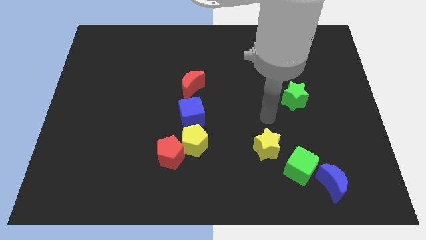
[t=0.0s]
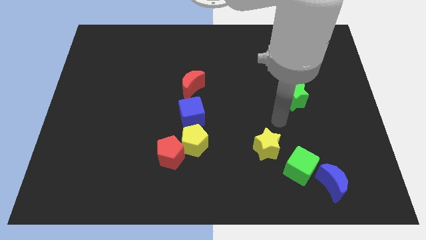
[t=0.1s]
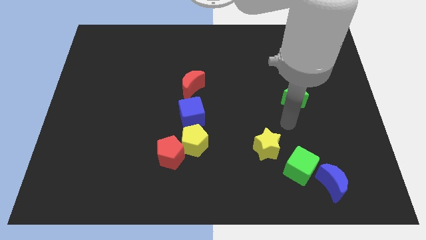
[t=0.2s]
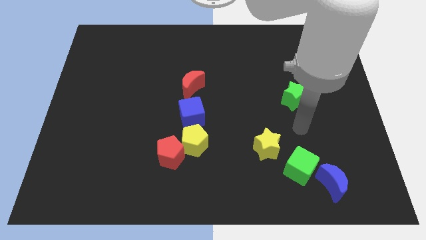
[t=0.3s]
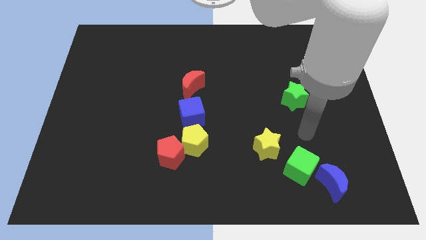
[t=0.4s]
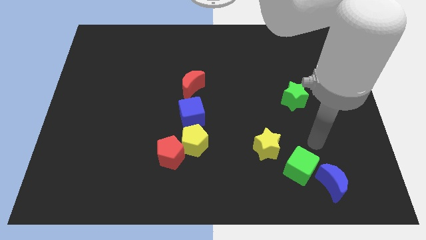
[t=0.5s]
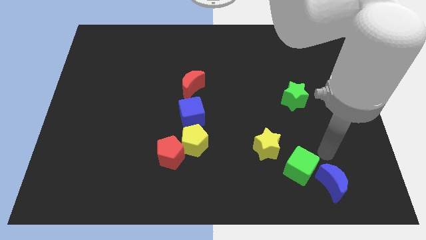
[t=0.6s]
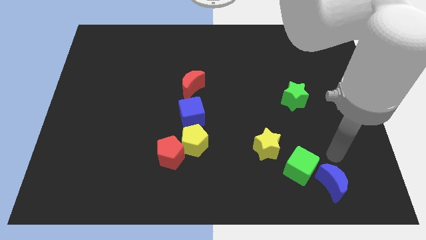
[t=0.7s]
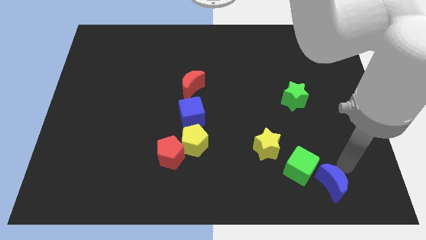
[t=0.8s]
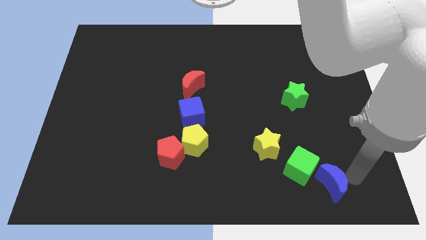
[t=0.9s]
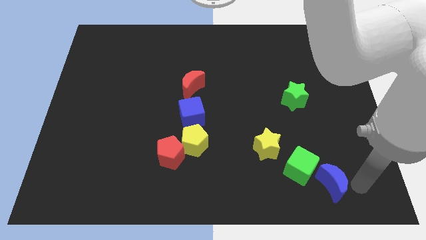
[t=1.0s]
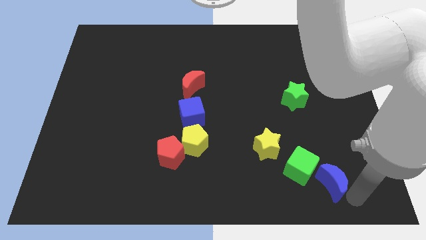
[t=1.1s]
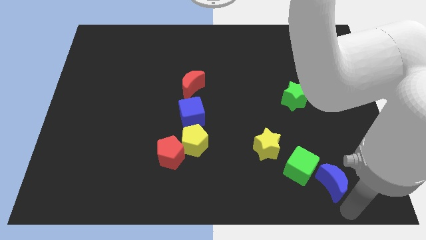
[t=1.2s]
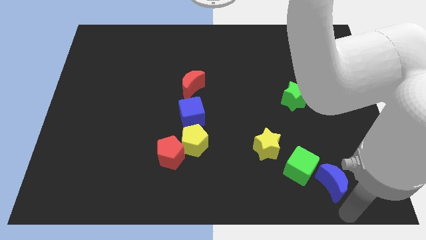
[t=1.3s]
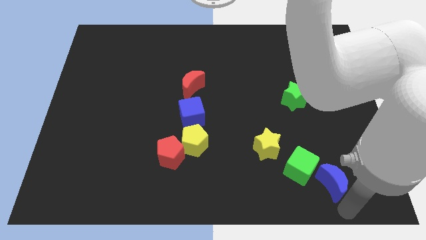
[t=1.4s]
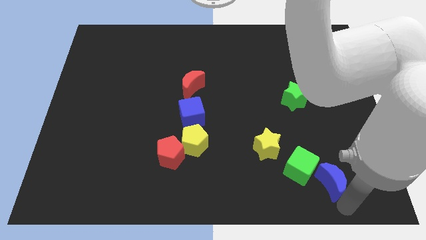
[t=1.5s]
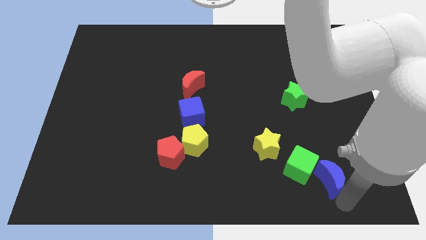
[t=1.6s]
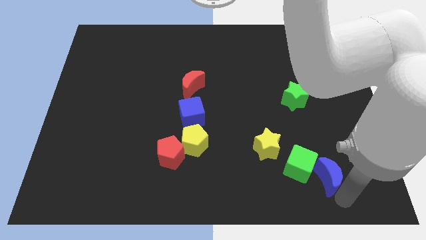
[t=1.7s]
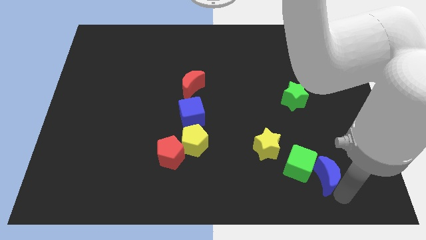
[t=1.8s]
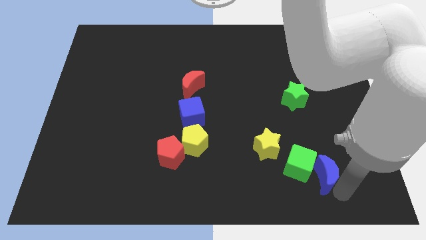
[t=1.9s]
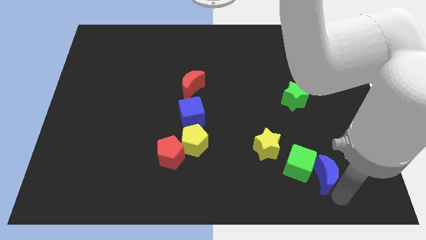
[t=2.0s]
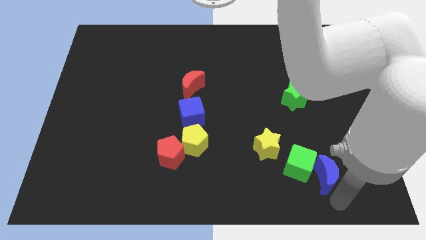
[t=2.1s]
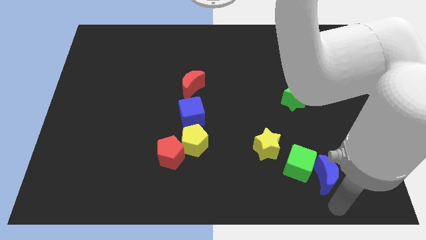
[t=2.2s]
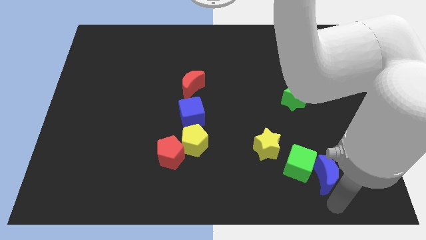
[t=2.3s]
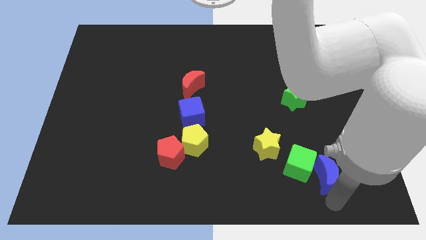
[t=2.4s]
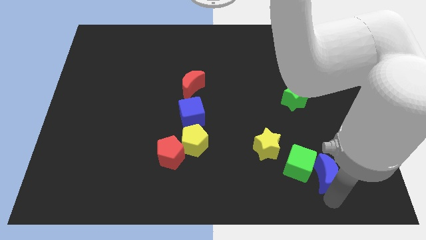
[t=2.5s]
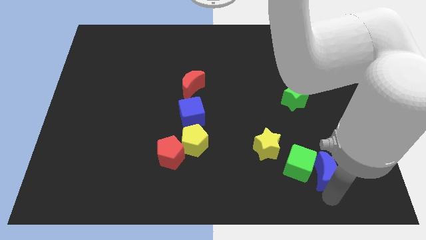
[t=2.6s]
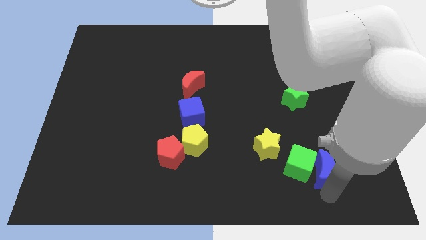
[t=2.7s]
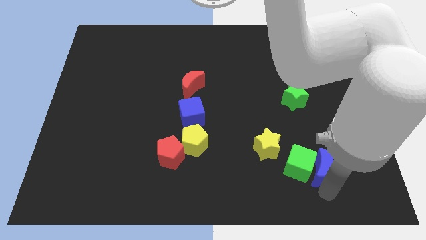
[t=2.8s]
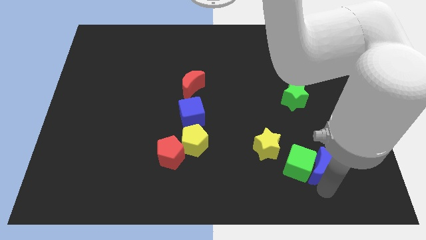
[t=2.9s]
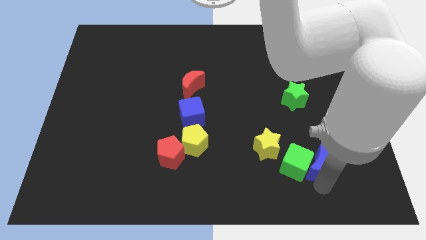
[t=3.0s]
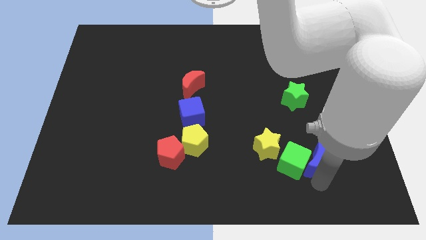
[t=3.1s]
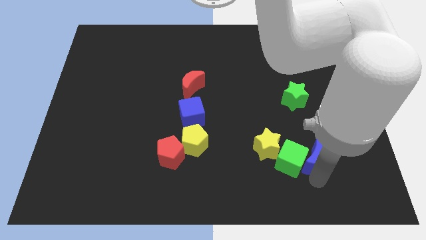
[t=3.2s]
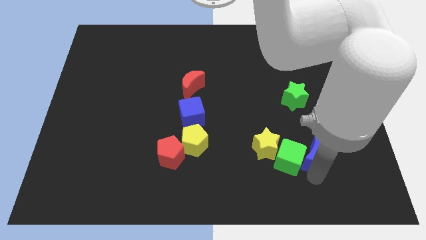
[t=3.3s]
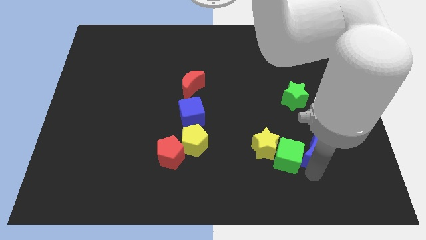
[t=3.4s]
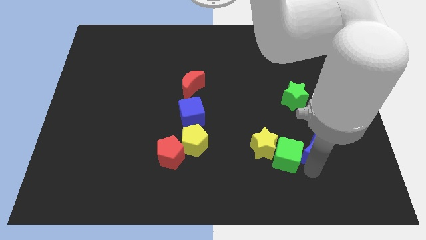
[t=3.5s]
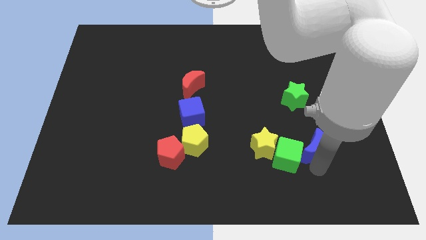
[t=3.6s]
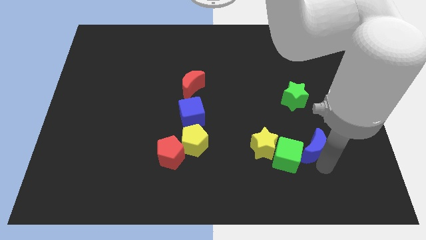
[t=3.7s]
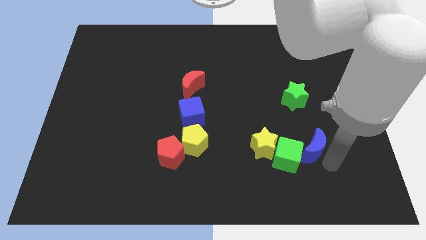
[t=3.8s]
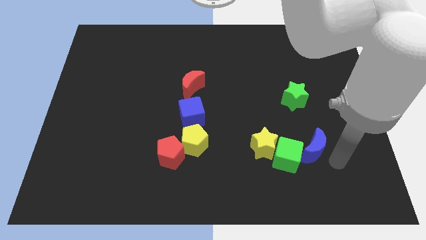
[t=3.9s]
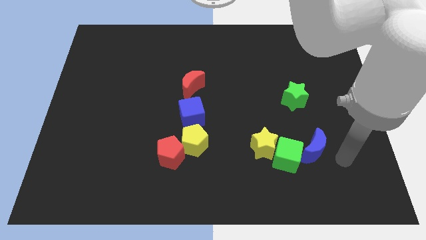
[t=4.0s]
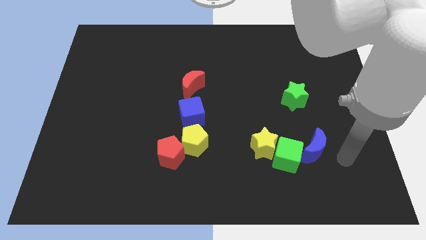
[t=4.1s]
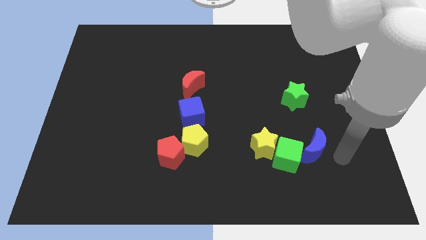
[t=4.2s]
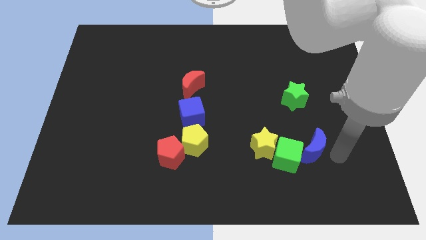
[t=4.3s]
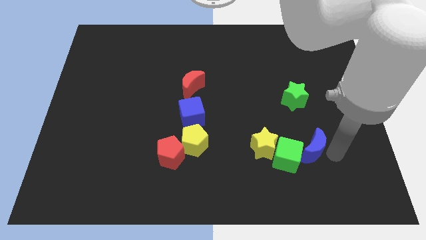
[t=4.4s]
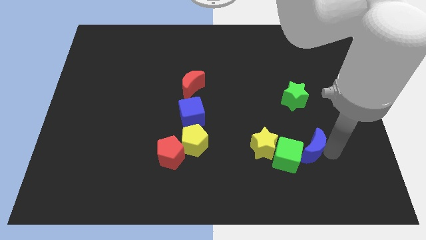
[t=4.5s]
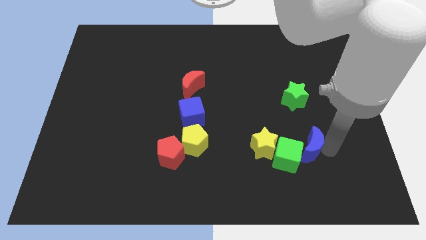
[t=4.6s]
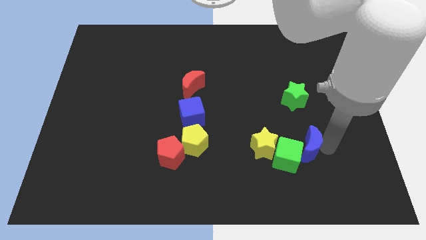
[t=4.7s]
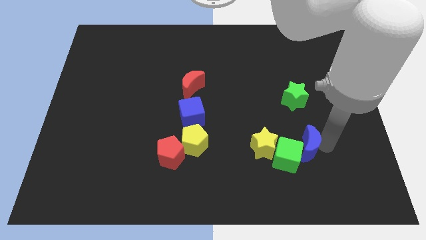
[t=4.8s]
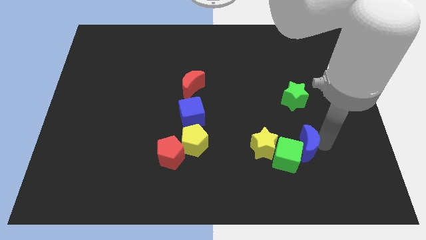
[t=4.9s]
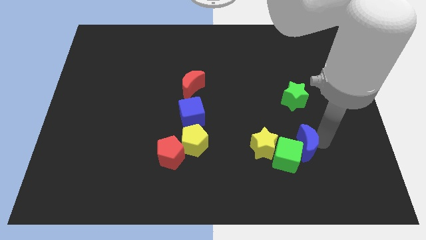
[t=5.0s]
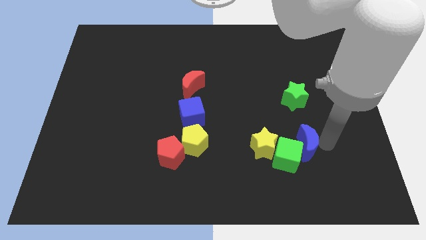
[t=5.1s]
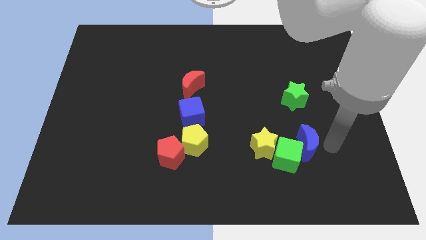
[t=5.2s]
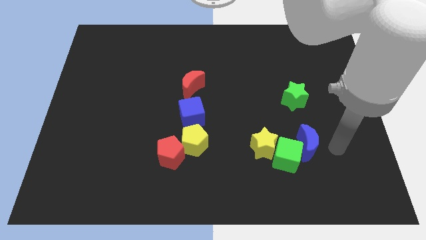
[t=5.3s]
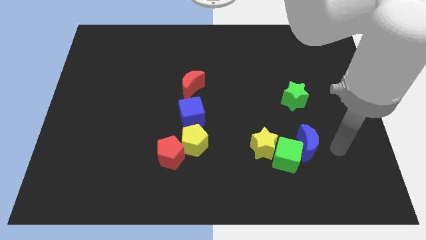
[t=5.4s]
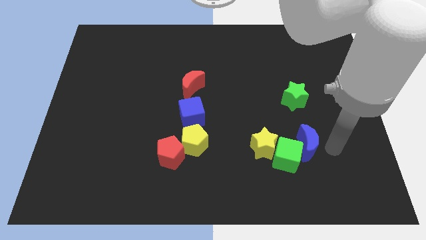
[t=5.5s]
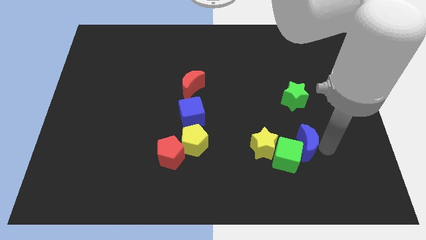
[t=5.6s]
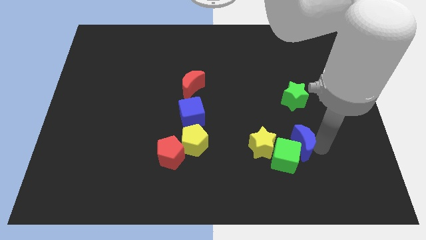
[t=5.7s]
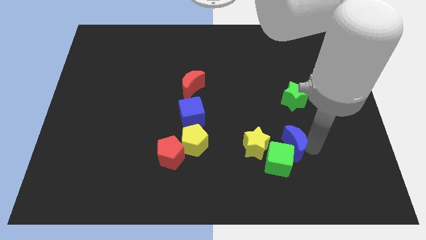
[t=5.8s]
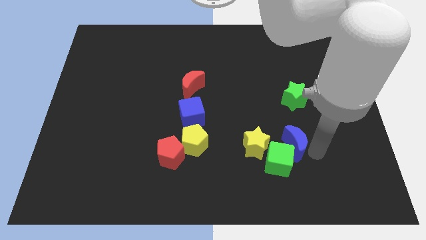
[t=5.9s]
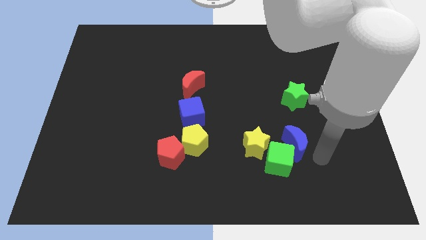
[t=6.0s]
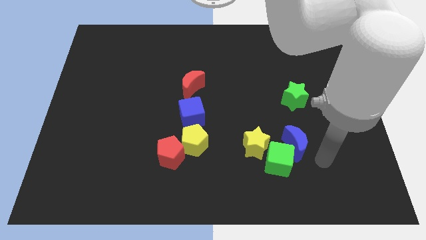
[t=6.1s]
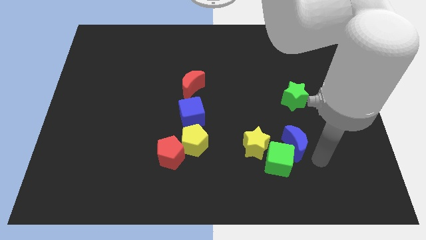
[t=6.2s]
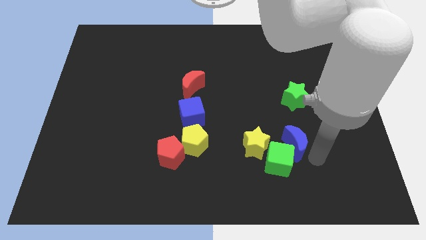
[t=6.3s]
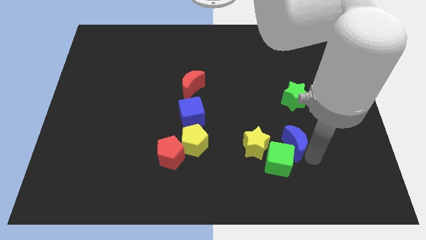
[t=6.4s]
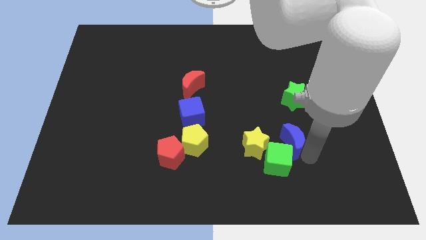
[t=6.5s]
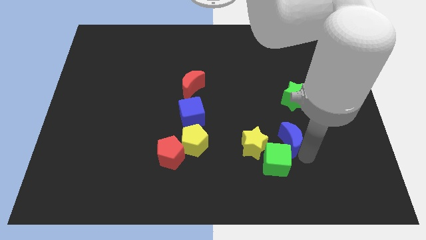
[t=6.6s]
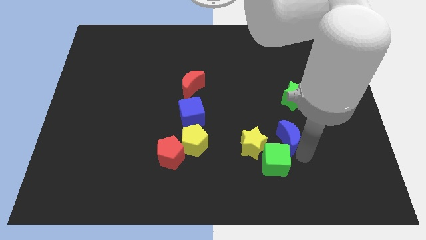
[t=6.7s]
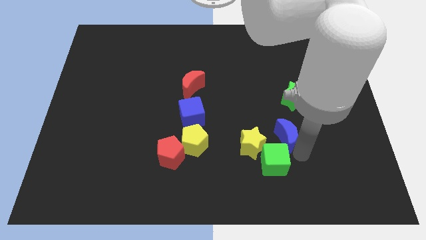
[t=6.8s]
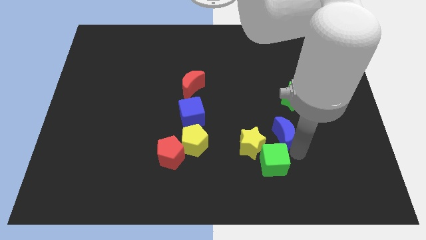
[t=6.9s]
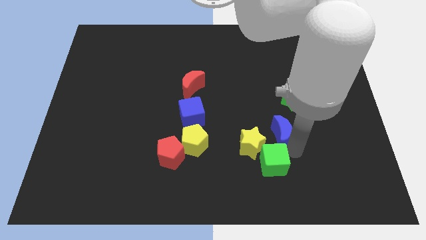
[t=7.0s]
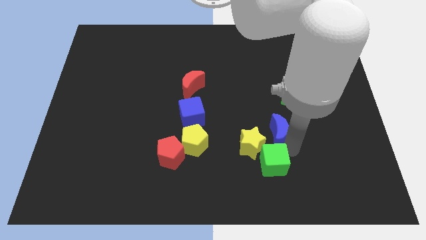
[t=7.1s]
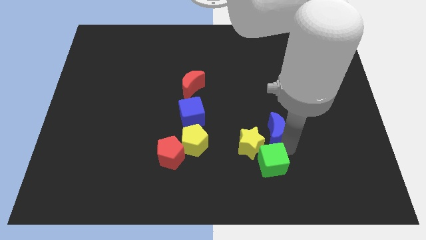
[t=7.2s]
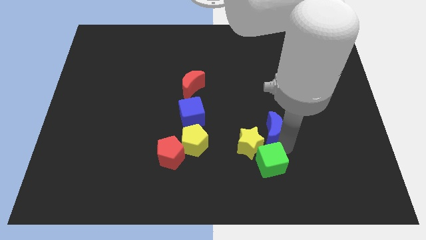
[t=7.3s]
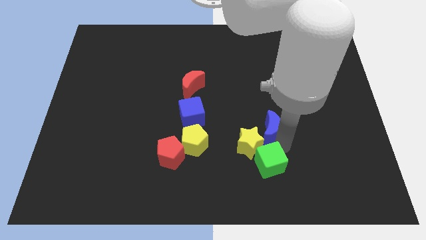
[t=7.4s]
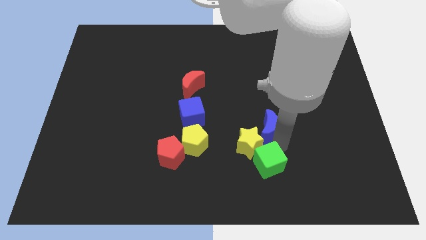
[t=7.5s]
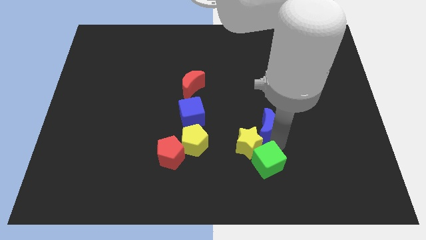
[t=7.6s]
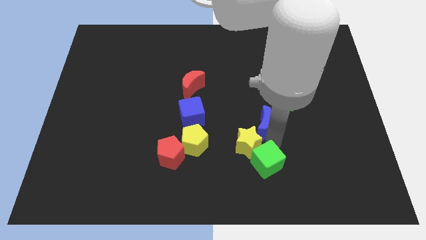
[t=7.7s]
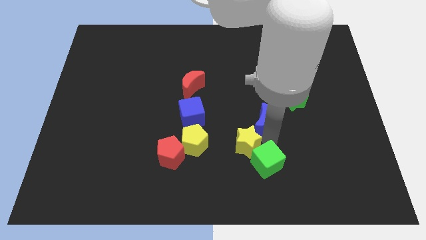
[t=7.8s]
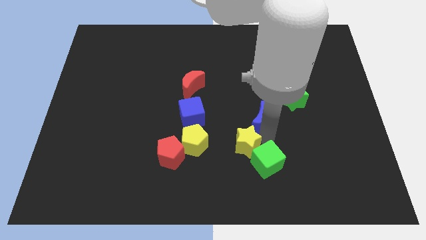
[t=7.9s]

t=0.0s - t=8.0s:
move the blue moon up and left diagonally

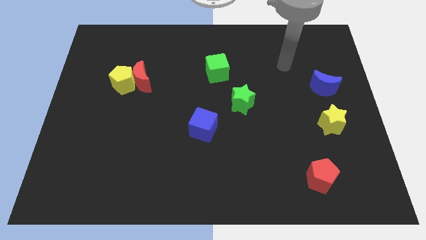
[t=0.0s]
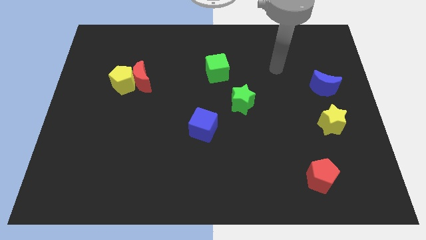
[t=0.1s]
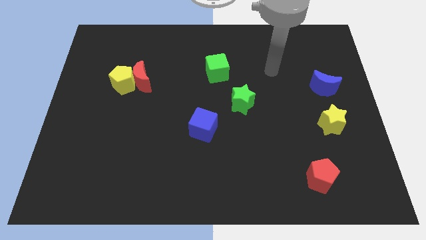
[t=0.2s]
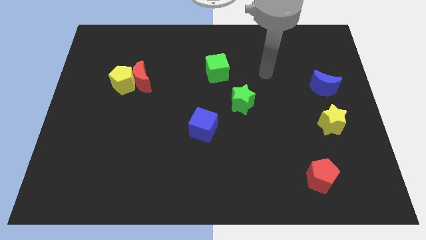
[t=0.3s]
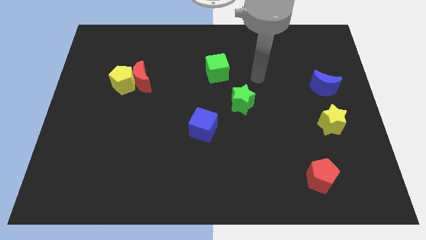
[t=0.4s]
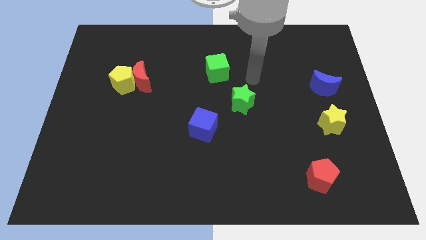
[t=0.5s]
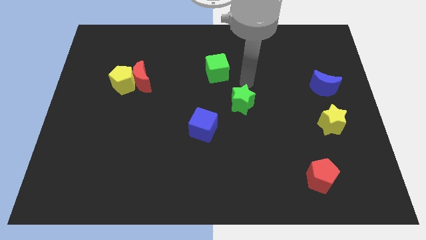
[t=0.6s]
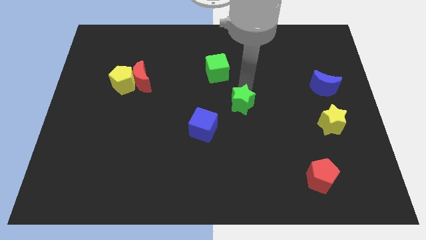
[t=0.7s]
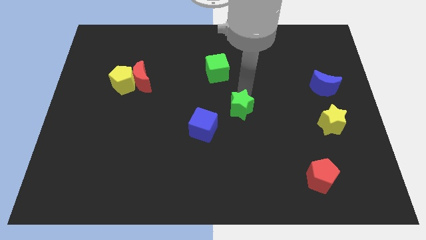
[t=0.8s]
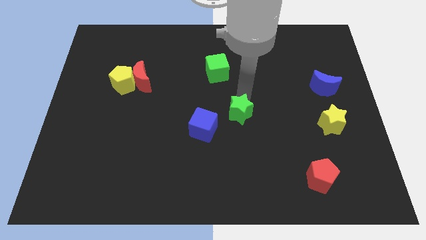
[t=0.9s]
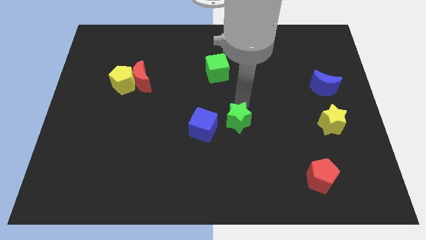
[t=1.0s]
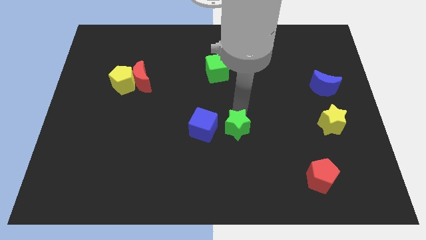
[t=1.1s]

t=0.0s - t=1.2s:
slightly push the green star downwards
